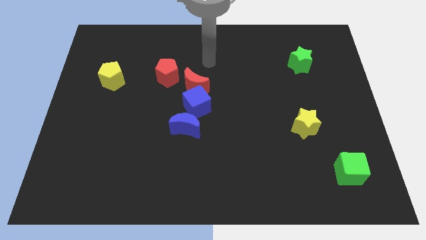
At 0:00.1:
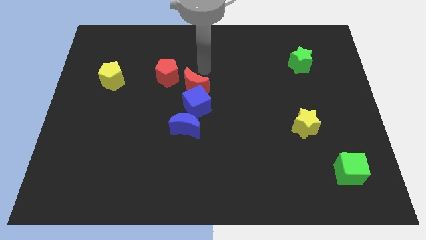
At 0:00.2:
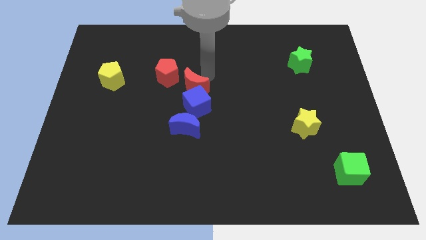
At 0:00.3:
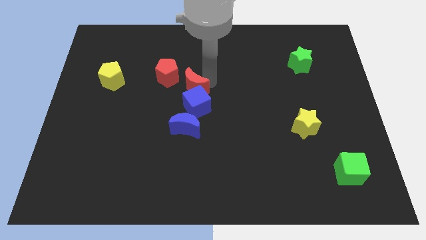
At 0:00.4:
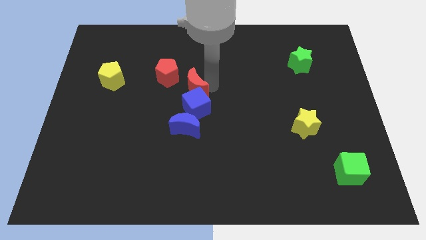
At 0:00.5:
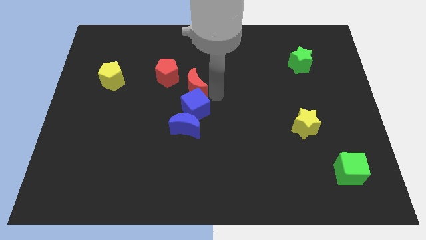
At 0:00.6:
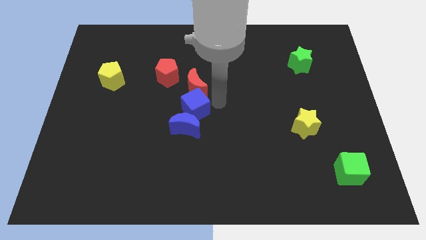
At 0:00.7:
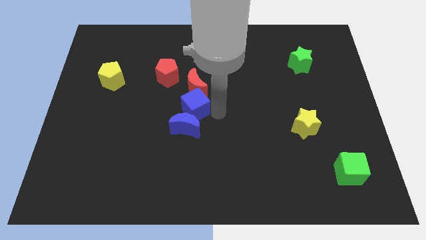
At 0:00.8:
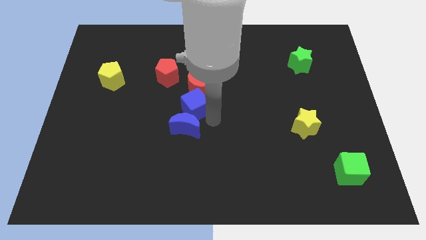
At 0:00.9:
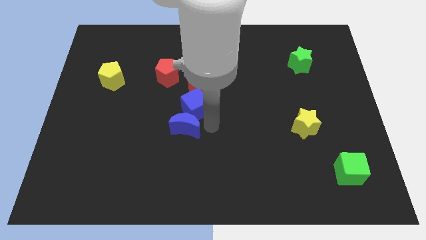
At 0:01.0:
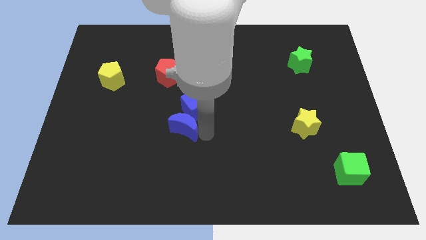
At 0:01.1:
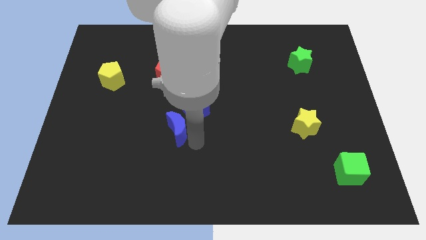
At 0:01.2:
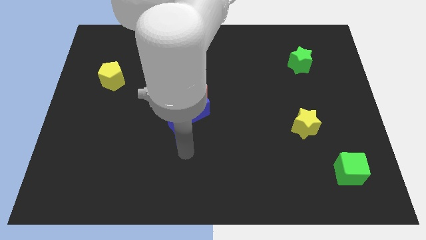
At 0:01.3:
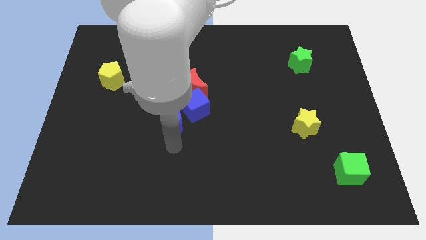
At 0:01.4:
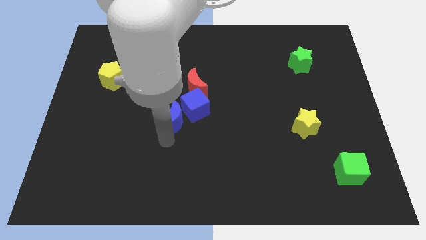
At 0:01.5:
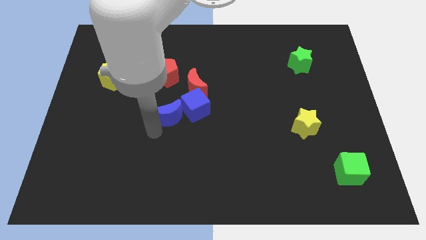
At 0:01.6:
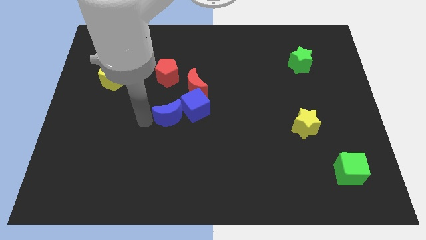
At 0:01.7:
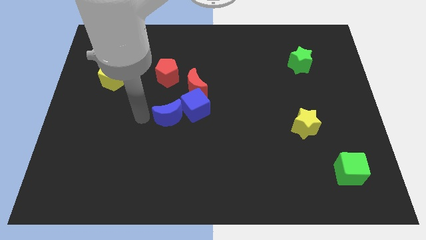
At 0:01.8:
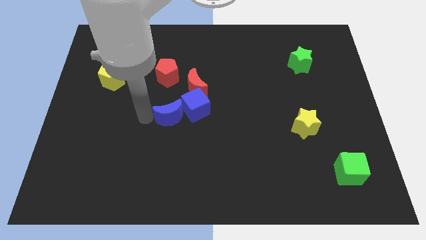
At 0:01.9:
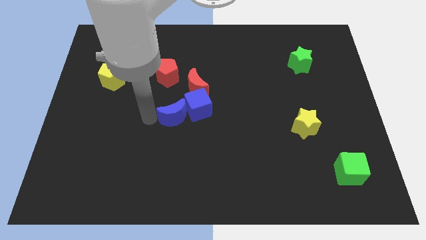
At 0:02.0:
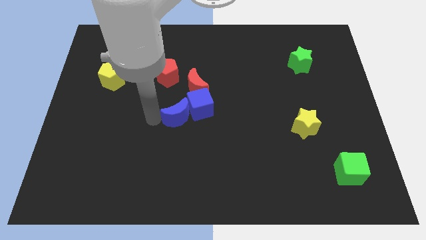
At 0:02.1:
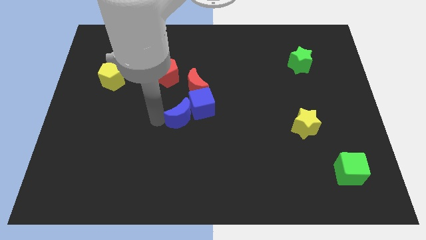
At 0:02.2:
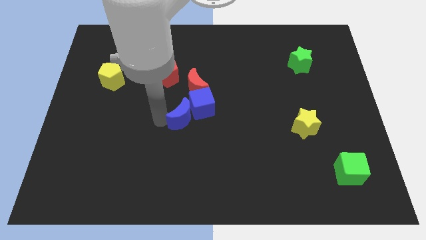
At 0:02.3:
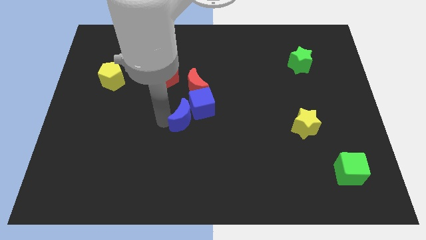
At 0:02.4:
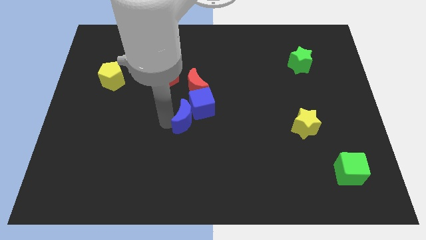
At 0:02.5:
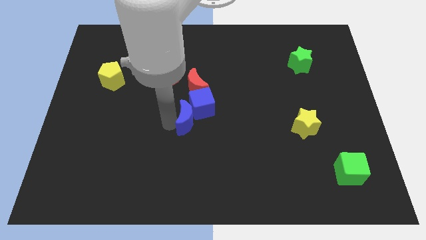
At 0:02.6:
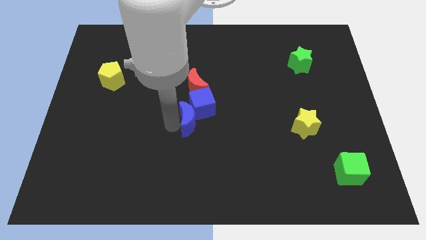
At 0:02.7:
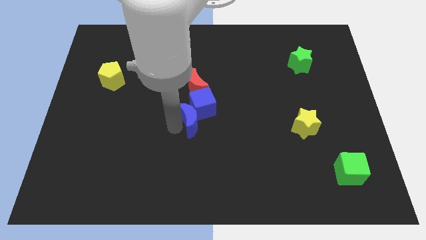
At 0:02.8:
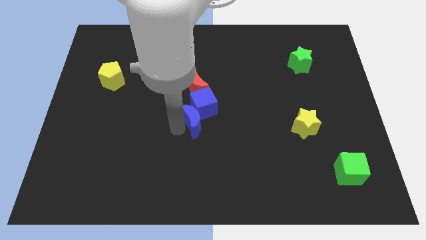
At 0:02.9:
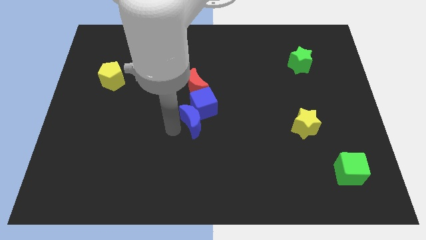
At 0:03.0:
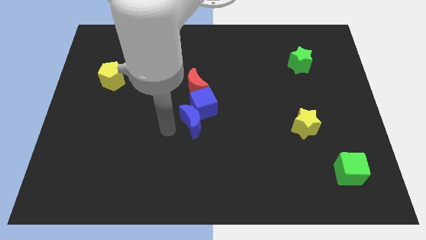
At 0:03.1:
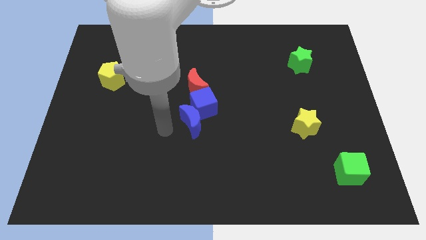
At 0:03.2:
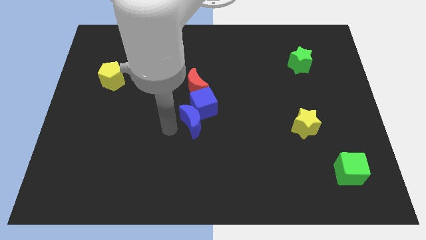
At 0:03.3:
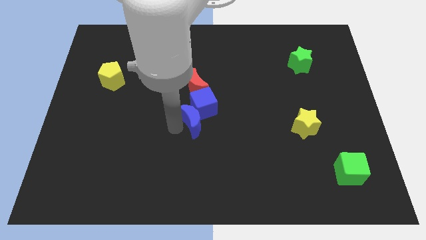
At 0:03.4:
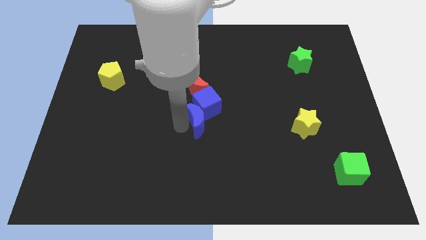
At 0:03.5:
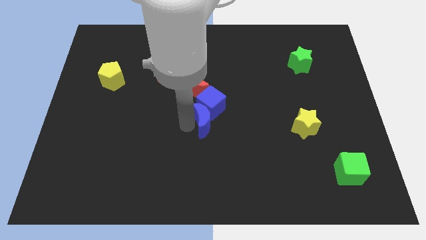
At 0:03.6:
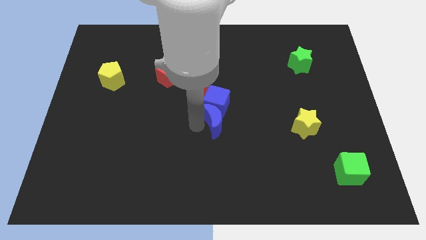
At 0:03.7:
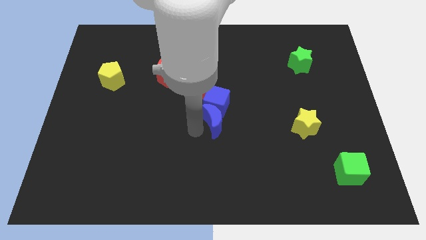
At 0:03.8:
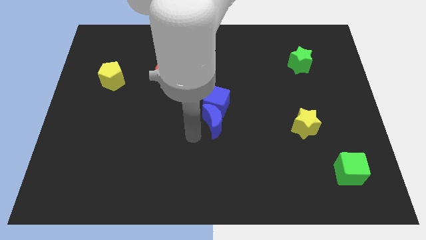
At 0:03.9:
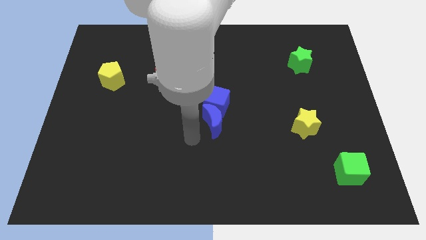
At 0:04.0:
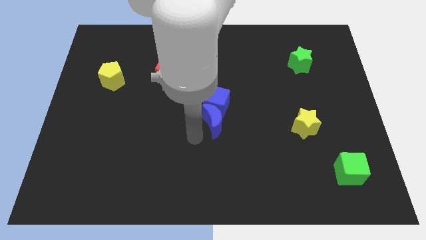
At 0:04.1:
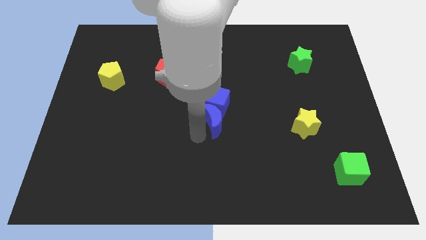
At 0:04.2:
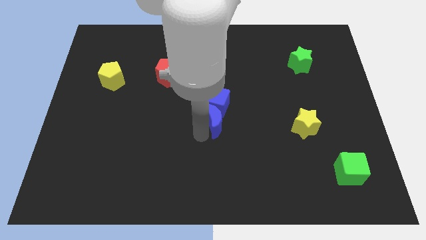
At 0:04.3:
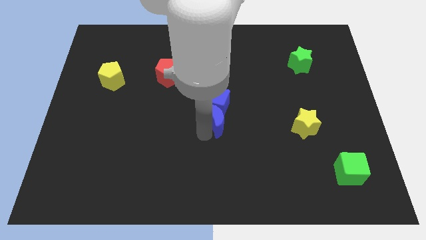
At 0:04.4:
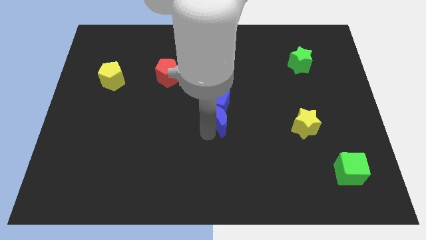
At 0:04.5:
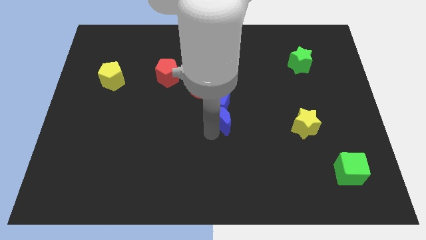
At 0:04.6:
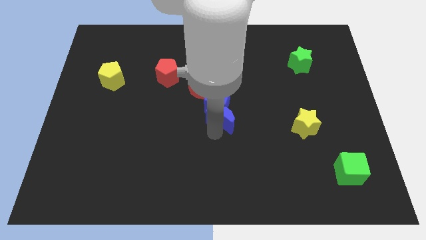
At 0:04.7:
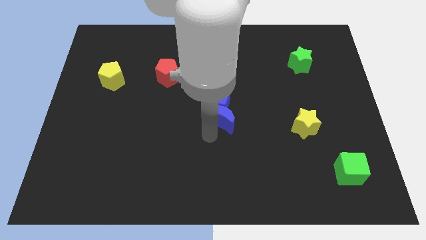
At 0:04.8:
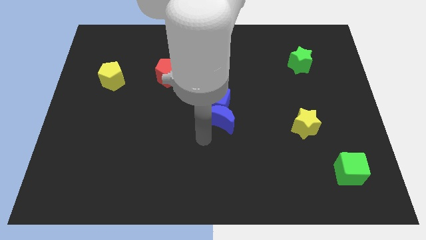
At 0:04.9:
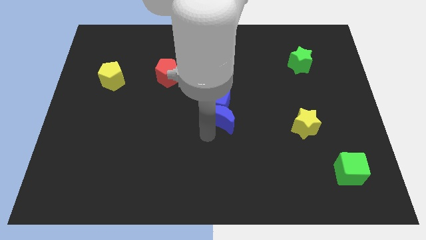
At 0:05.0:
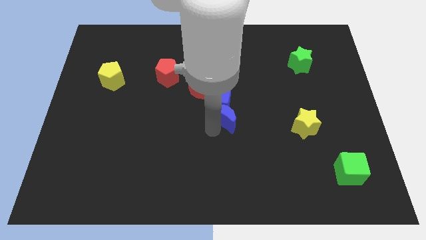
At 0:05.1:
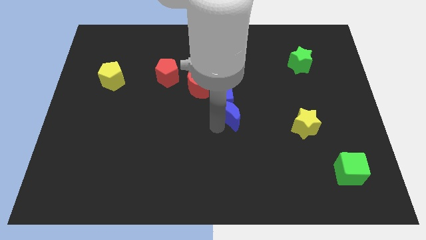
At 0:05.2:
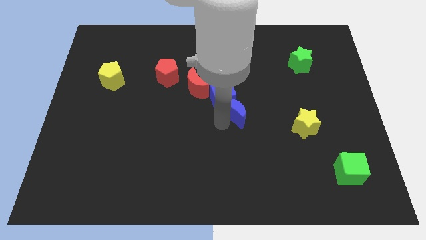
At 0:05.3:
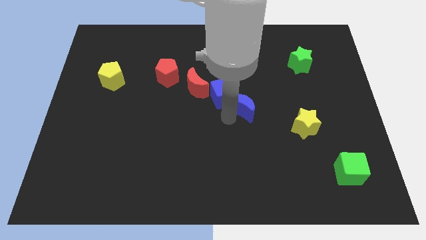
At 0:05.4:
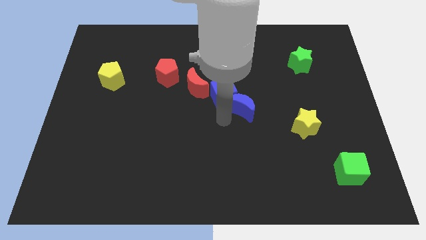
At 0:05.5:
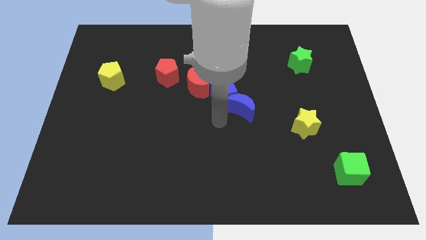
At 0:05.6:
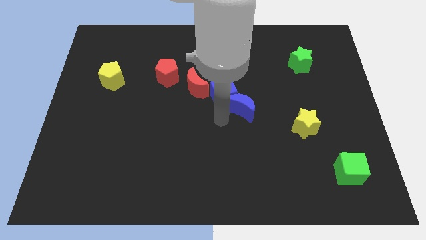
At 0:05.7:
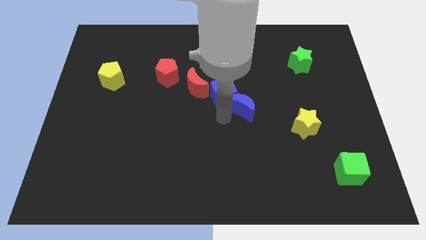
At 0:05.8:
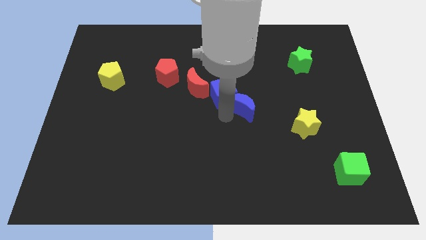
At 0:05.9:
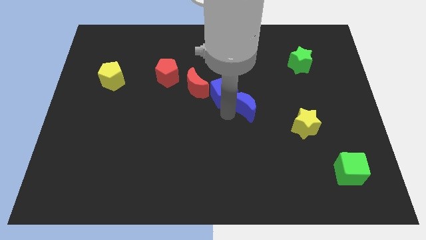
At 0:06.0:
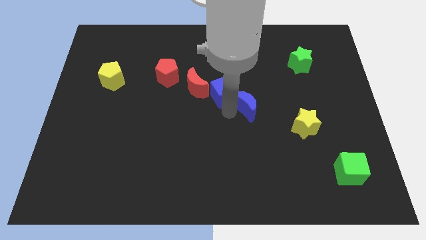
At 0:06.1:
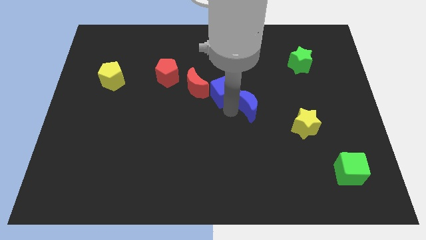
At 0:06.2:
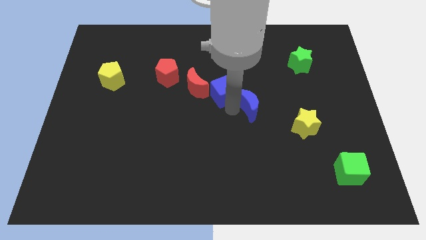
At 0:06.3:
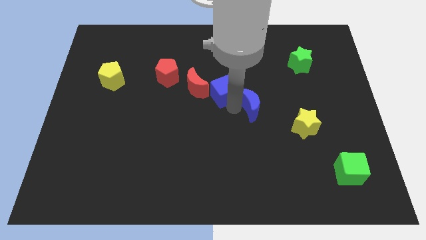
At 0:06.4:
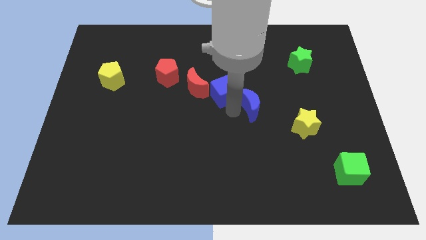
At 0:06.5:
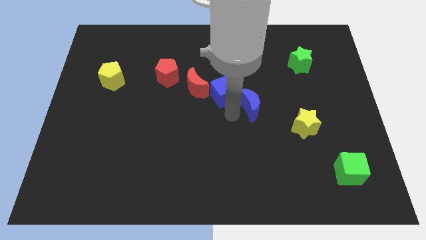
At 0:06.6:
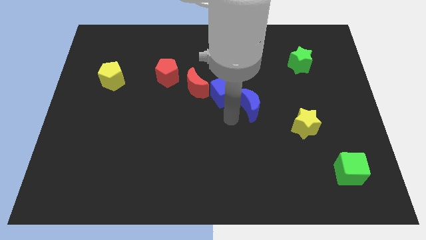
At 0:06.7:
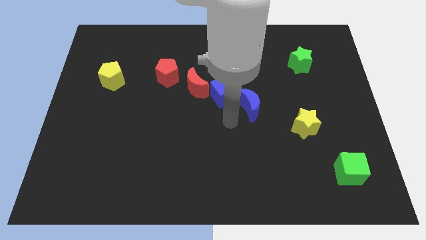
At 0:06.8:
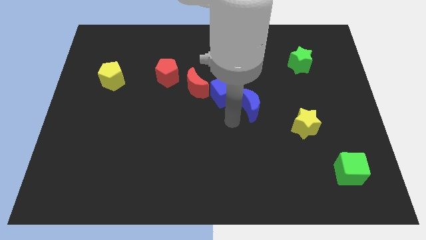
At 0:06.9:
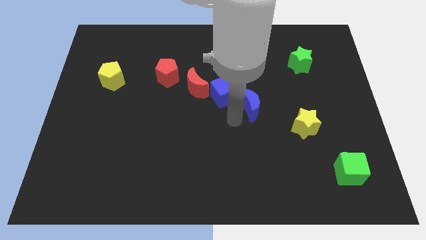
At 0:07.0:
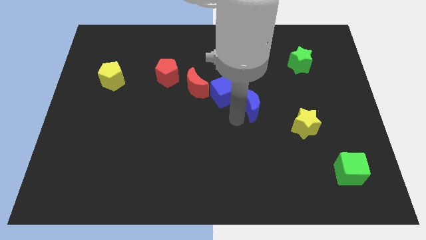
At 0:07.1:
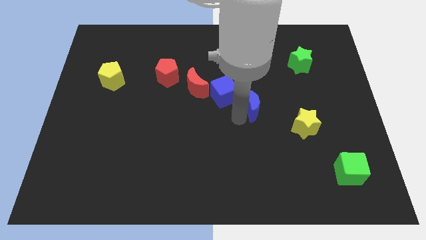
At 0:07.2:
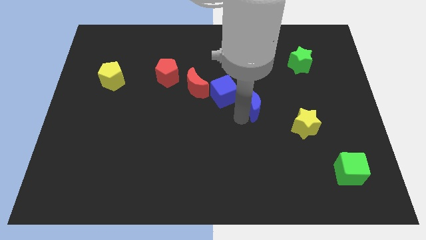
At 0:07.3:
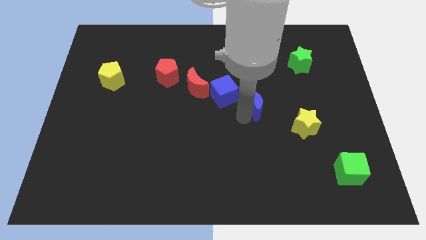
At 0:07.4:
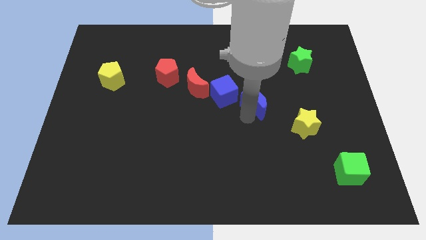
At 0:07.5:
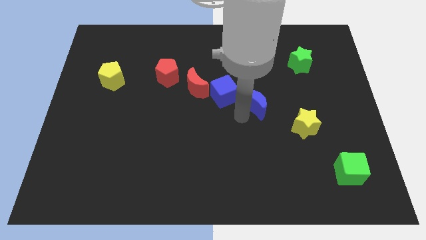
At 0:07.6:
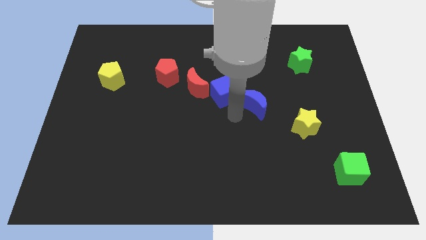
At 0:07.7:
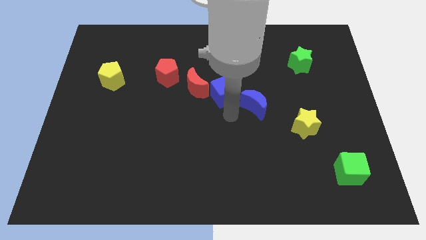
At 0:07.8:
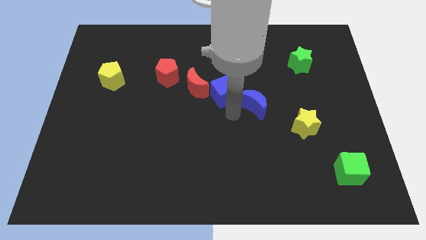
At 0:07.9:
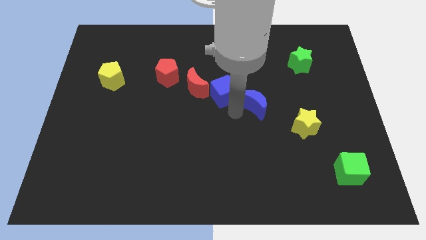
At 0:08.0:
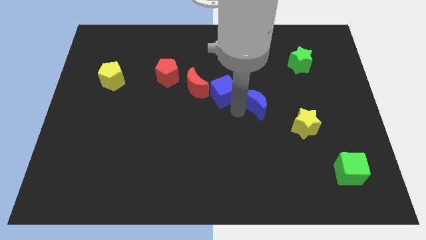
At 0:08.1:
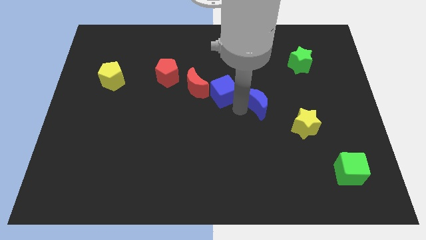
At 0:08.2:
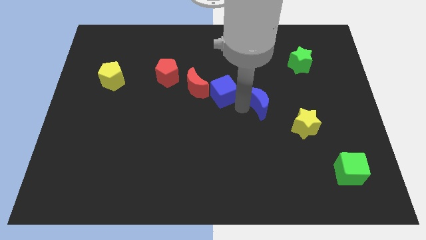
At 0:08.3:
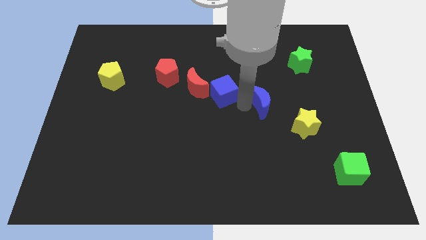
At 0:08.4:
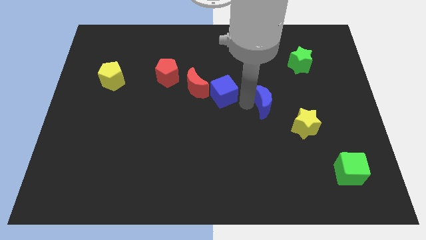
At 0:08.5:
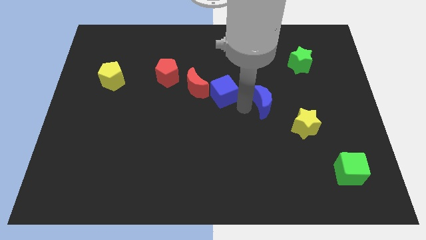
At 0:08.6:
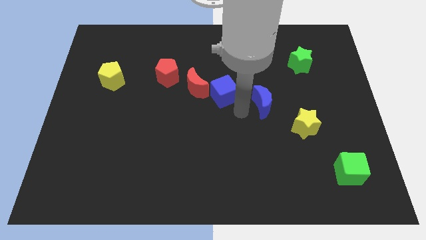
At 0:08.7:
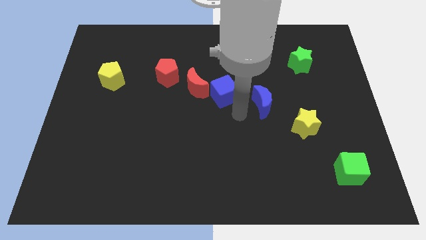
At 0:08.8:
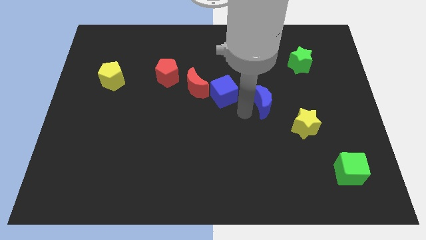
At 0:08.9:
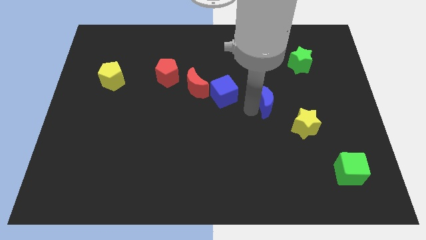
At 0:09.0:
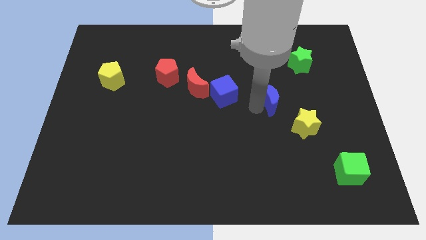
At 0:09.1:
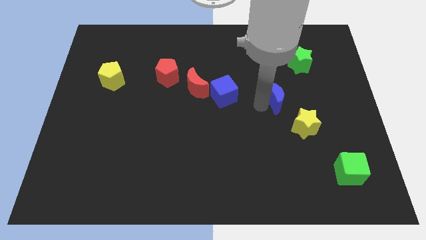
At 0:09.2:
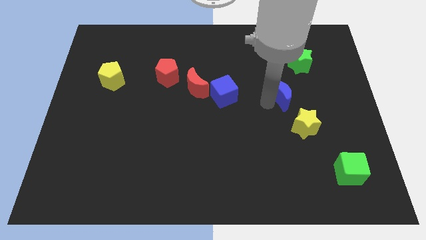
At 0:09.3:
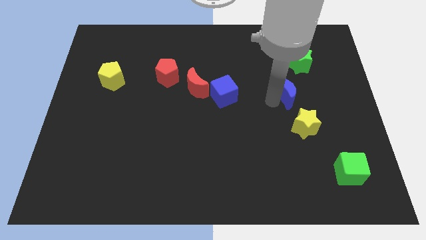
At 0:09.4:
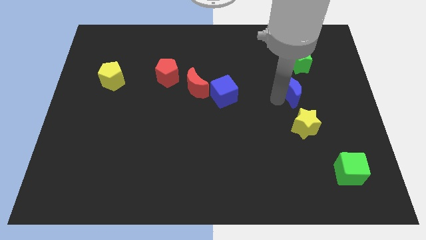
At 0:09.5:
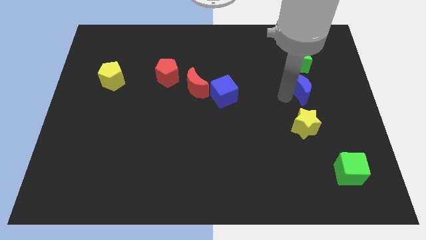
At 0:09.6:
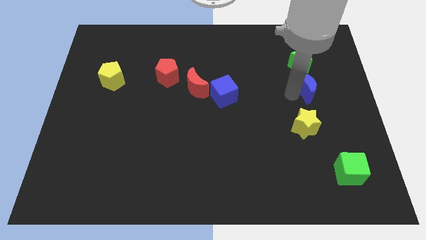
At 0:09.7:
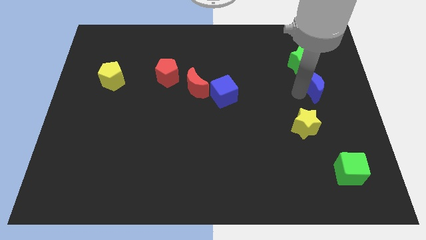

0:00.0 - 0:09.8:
move the blue moon to the bottom right of the green star
